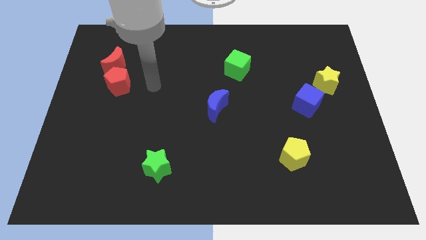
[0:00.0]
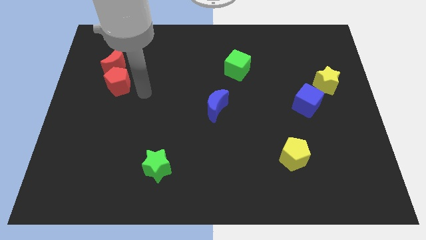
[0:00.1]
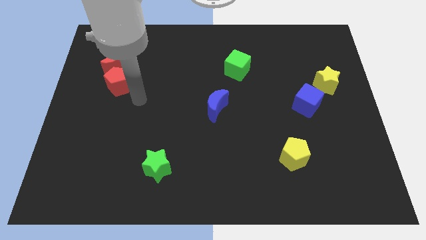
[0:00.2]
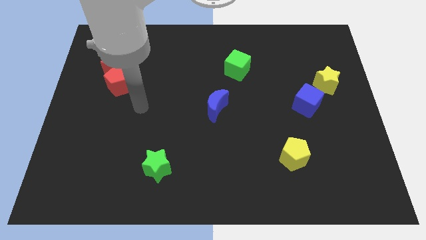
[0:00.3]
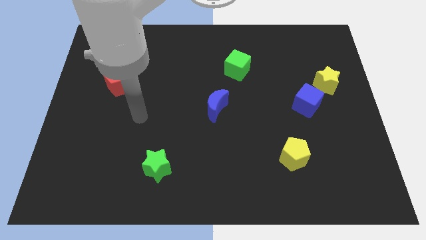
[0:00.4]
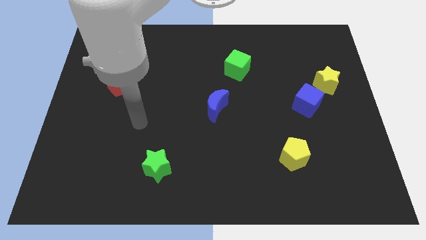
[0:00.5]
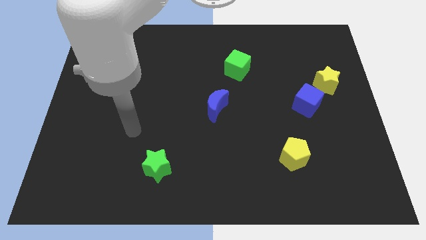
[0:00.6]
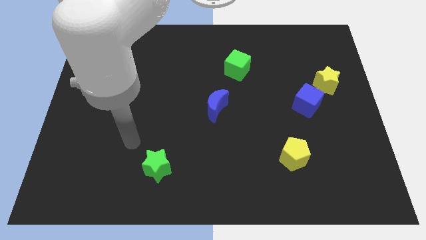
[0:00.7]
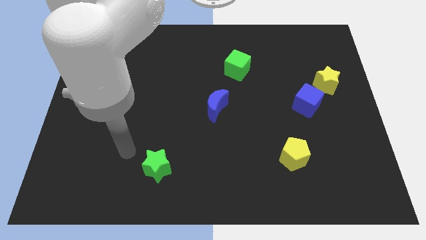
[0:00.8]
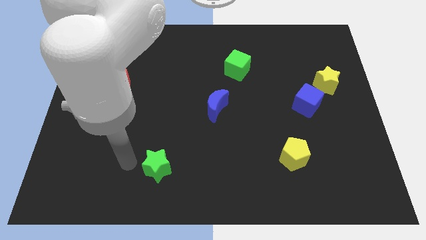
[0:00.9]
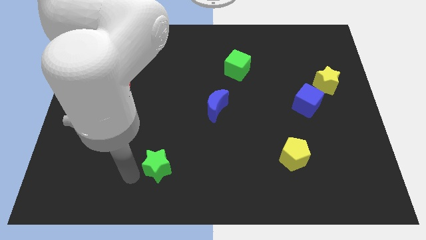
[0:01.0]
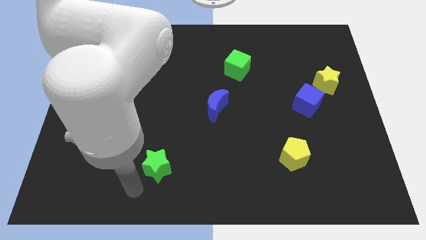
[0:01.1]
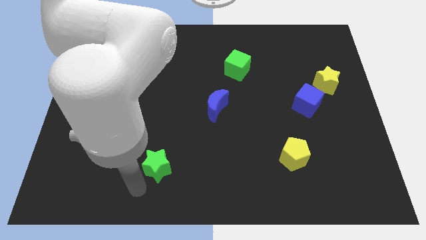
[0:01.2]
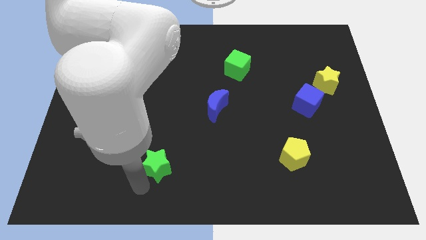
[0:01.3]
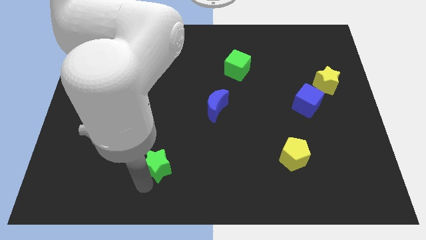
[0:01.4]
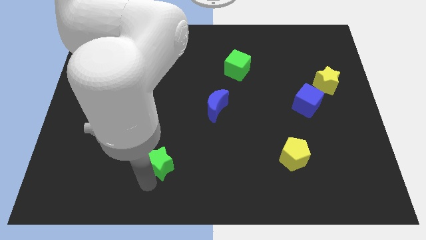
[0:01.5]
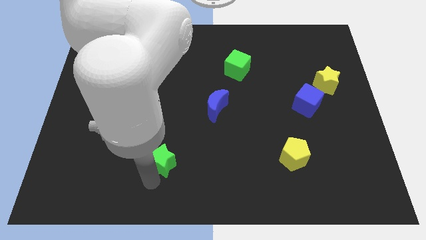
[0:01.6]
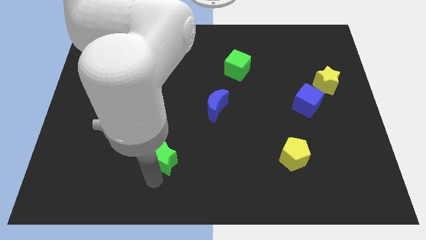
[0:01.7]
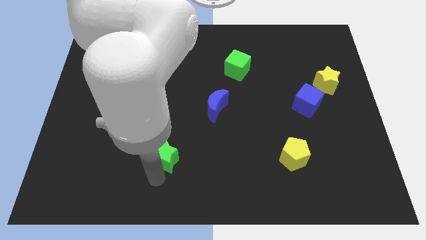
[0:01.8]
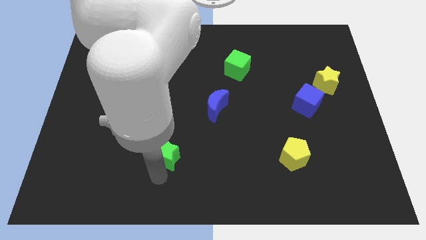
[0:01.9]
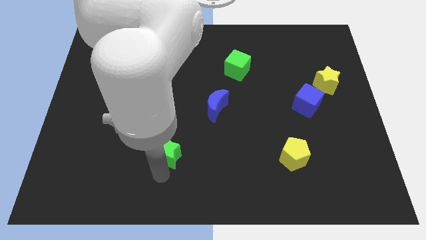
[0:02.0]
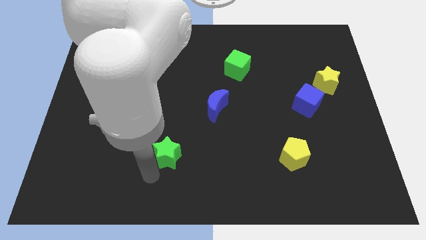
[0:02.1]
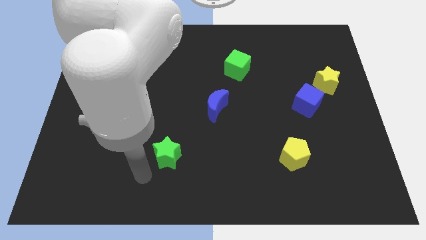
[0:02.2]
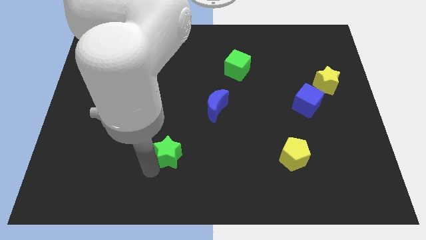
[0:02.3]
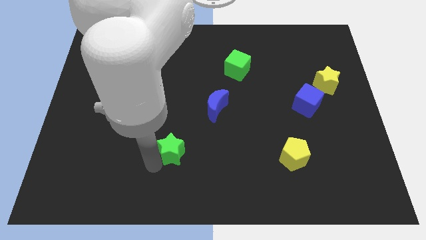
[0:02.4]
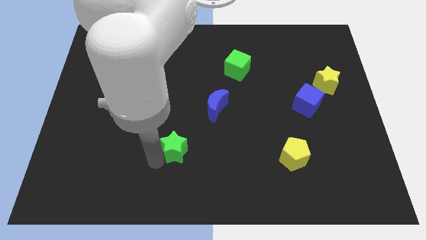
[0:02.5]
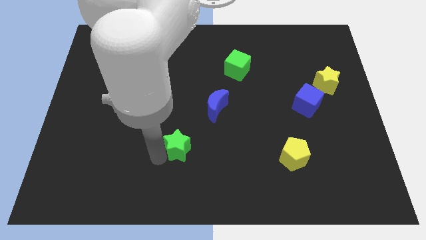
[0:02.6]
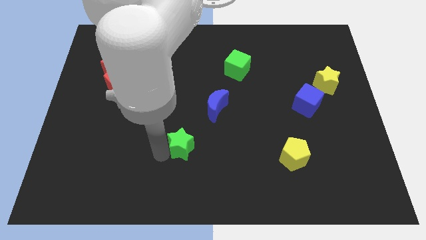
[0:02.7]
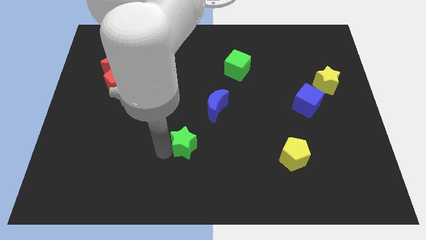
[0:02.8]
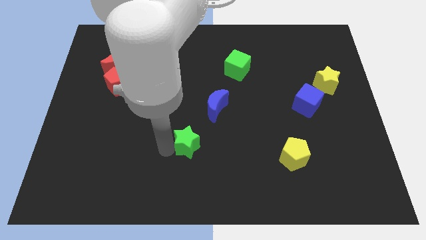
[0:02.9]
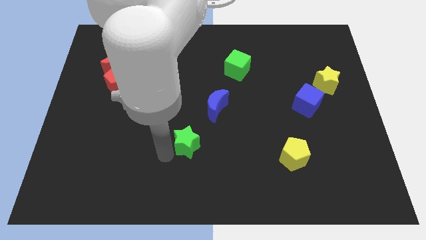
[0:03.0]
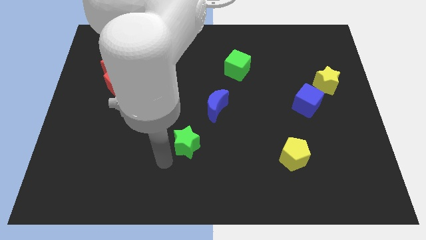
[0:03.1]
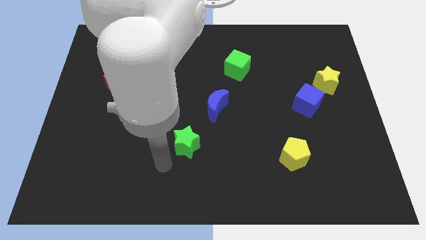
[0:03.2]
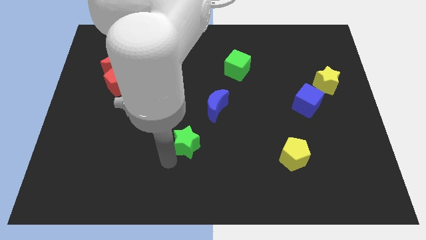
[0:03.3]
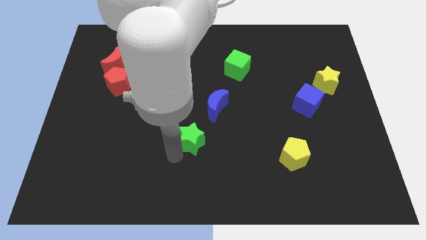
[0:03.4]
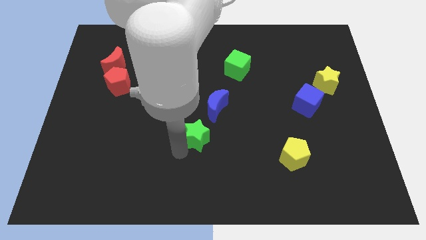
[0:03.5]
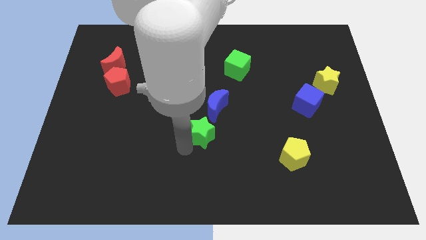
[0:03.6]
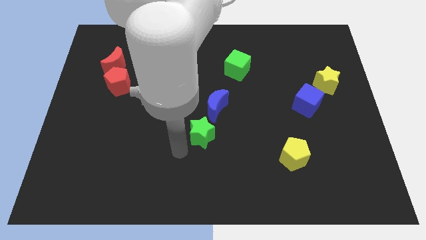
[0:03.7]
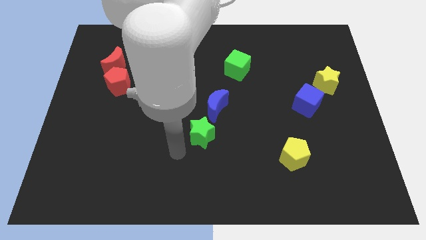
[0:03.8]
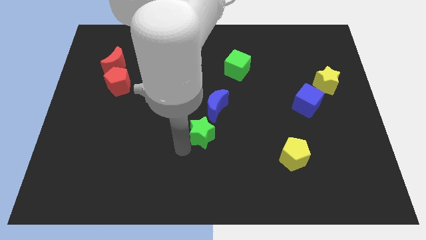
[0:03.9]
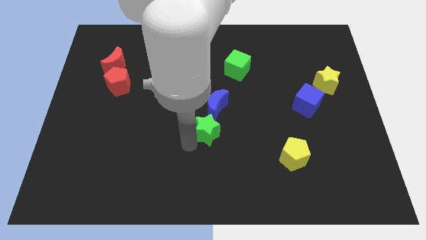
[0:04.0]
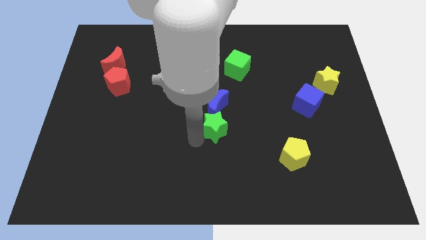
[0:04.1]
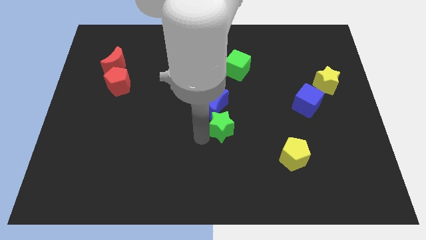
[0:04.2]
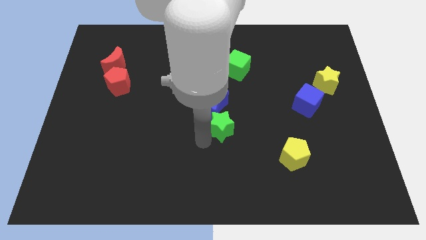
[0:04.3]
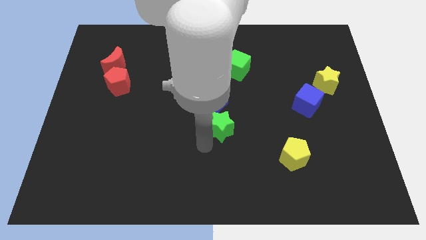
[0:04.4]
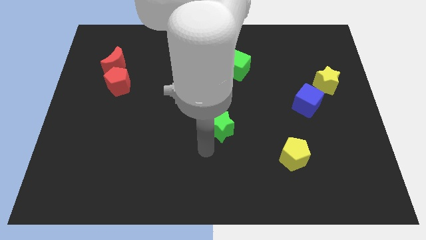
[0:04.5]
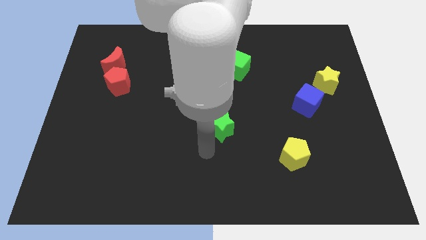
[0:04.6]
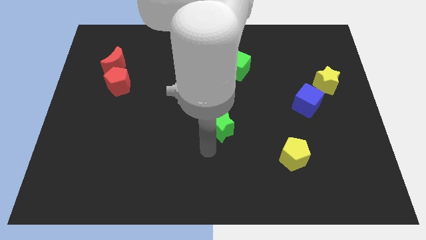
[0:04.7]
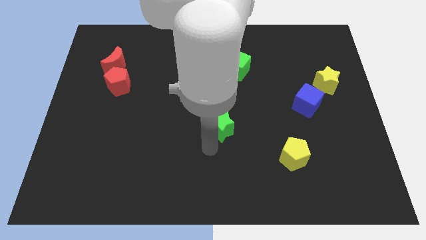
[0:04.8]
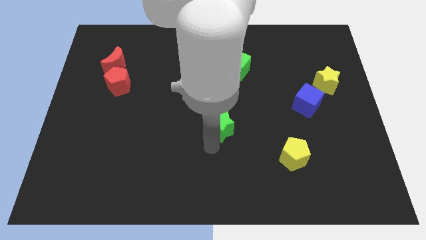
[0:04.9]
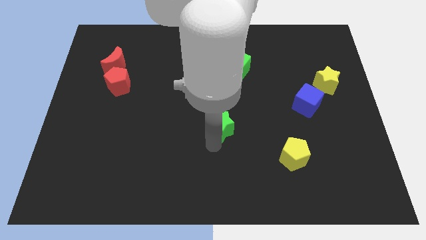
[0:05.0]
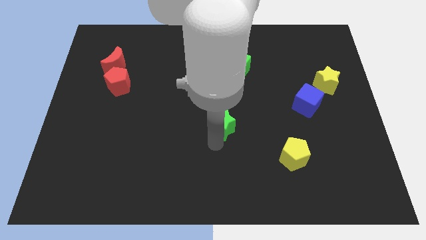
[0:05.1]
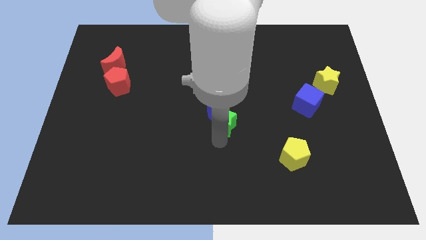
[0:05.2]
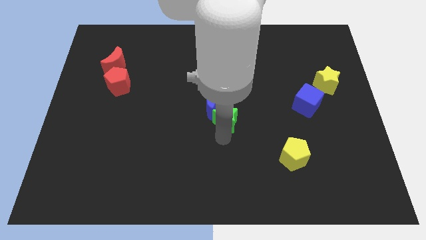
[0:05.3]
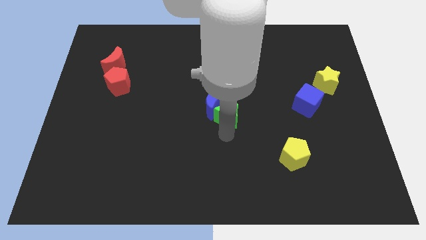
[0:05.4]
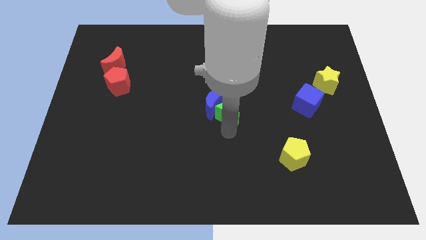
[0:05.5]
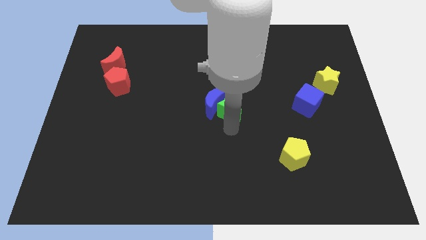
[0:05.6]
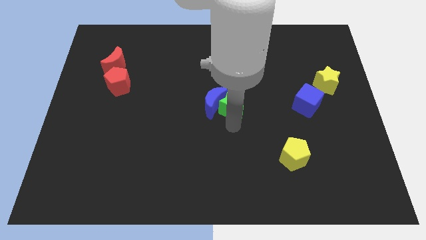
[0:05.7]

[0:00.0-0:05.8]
slide the green star diagonally up and to the right of the blue moon

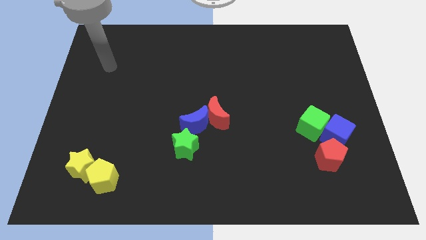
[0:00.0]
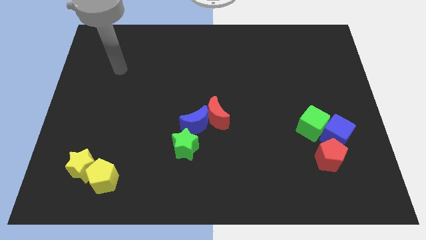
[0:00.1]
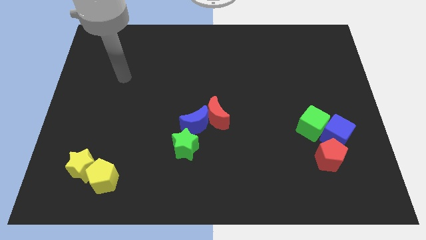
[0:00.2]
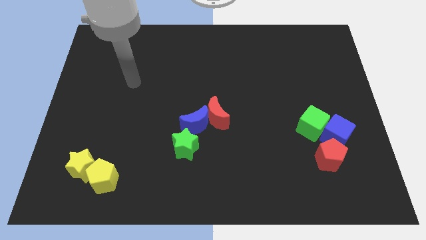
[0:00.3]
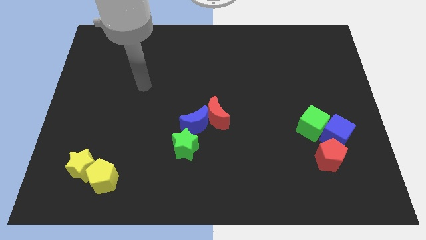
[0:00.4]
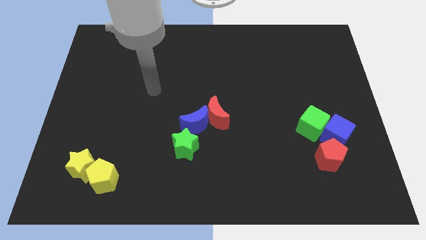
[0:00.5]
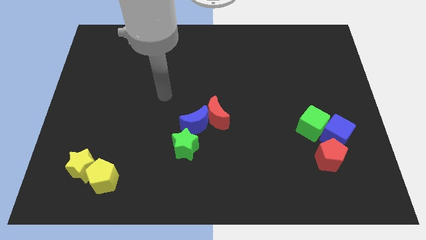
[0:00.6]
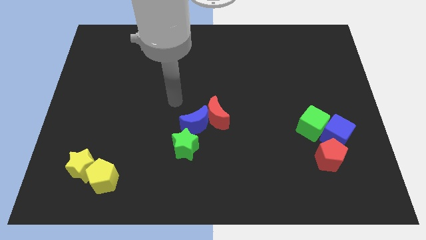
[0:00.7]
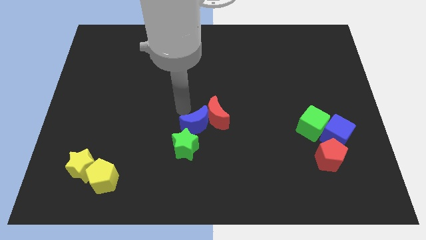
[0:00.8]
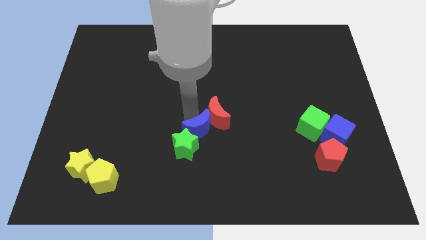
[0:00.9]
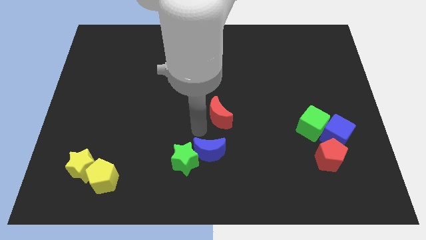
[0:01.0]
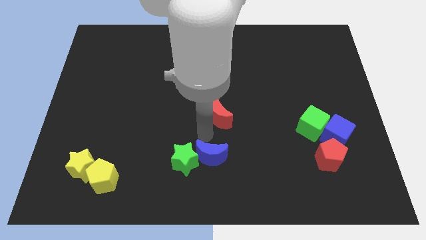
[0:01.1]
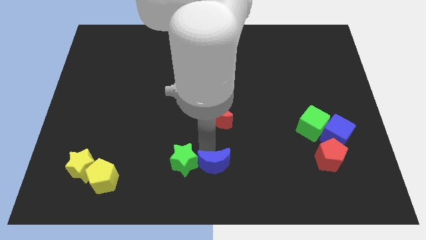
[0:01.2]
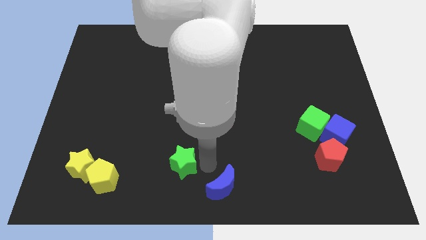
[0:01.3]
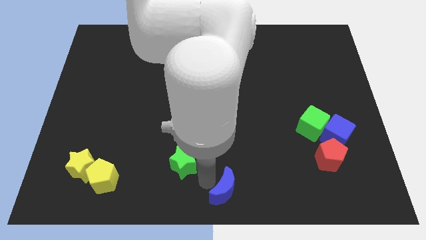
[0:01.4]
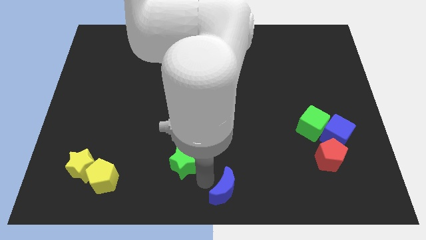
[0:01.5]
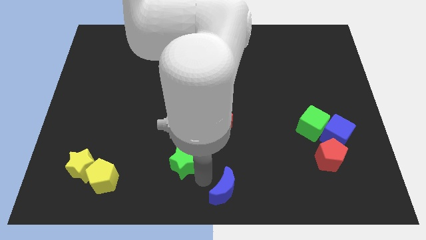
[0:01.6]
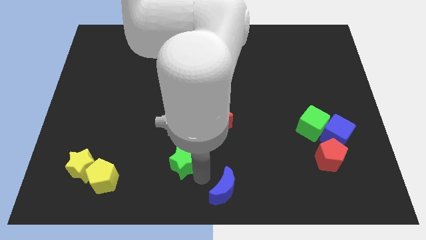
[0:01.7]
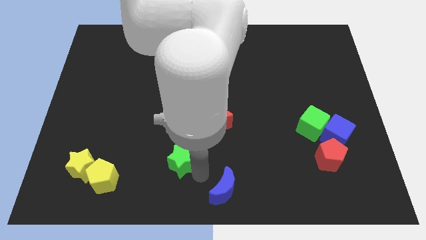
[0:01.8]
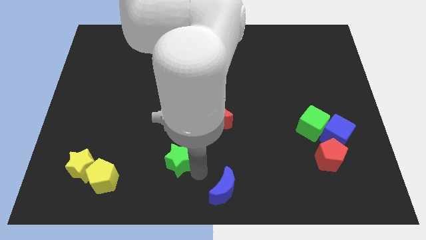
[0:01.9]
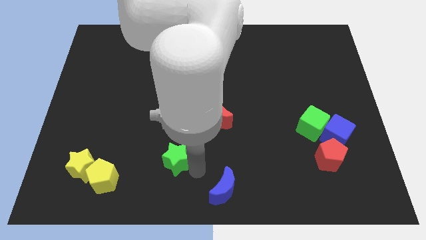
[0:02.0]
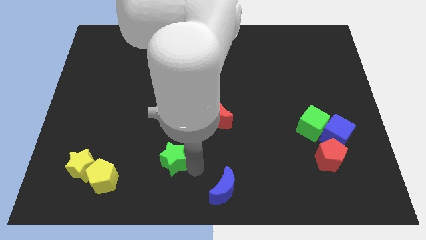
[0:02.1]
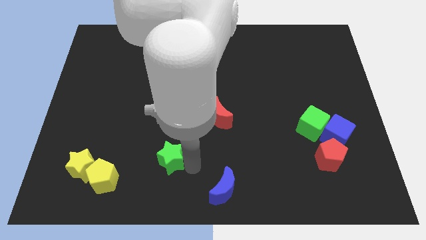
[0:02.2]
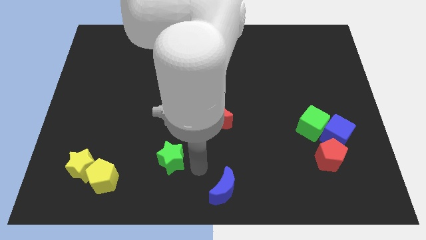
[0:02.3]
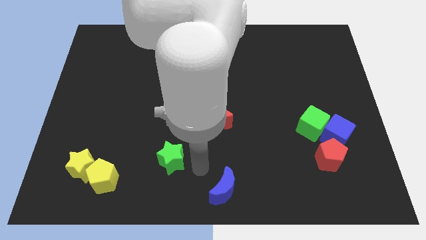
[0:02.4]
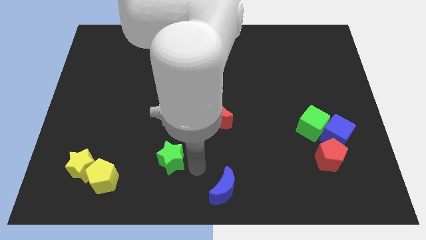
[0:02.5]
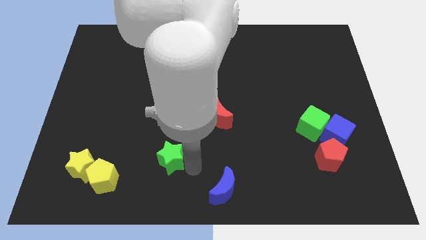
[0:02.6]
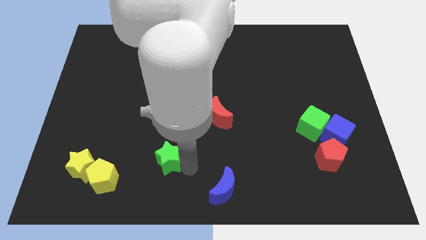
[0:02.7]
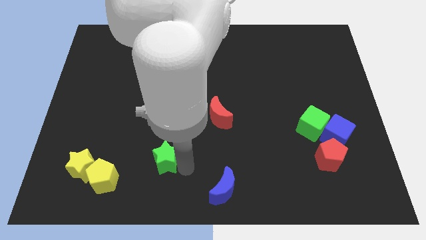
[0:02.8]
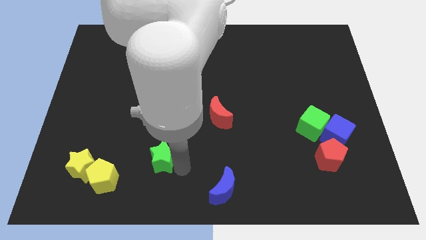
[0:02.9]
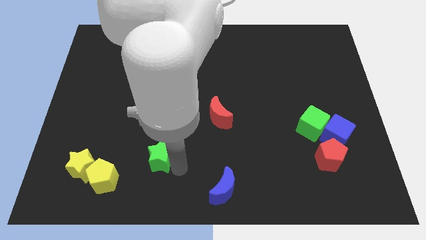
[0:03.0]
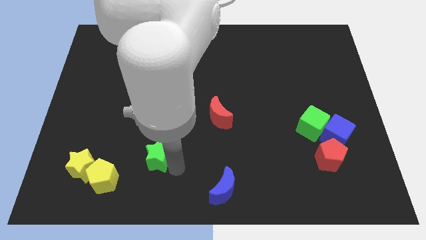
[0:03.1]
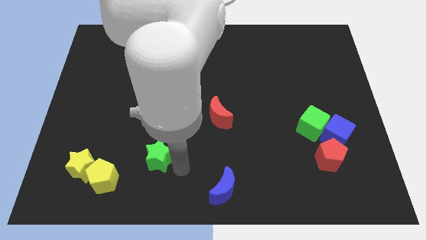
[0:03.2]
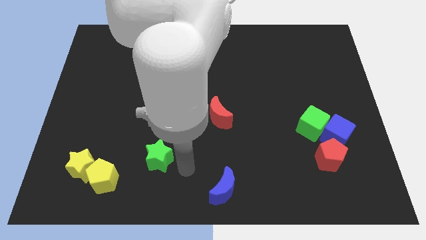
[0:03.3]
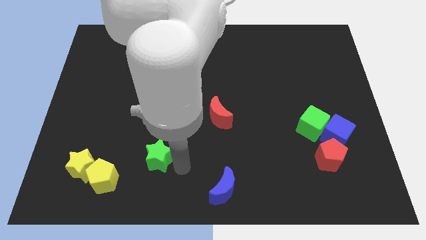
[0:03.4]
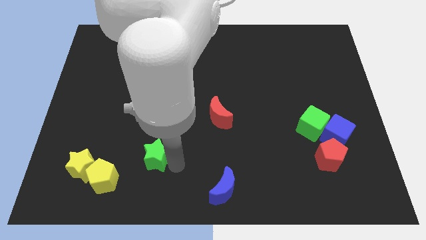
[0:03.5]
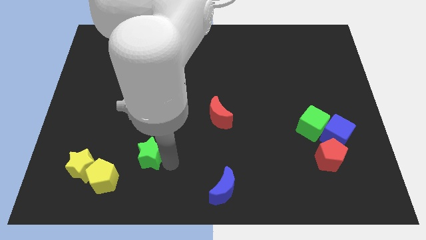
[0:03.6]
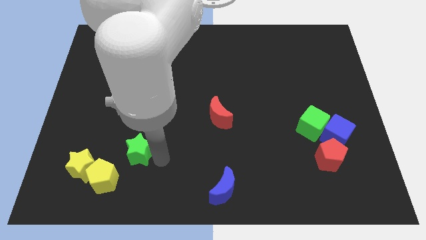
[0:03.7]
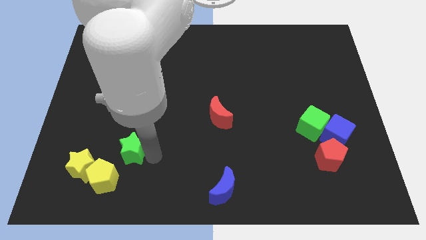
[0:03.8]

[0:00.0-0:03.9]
move the green star to the top right of the yellow star
